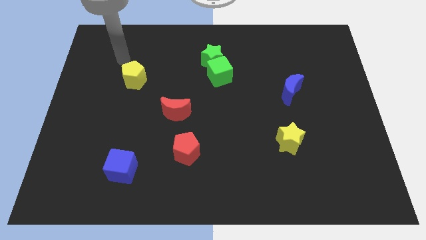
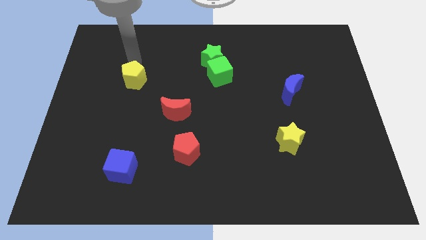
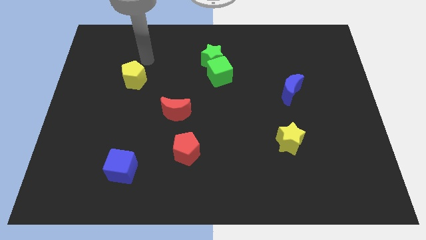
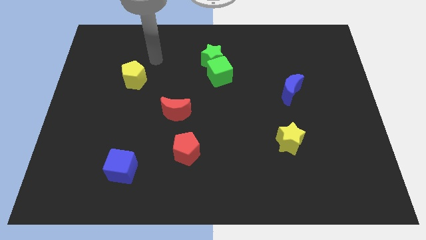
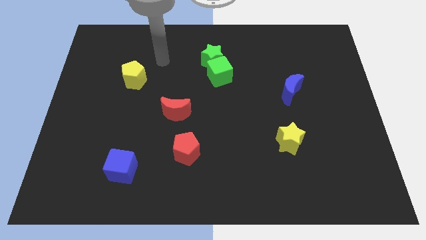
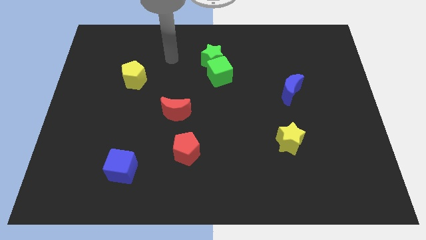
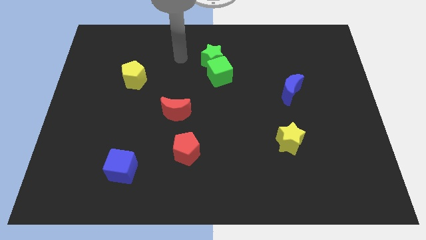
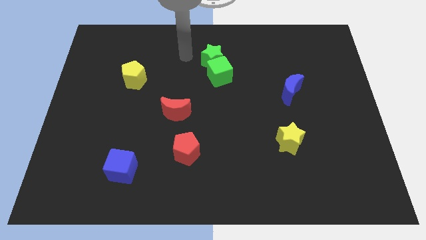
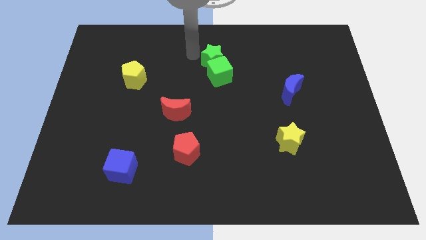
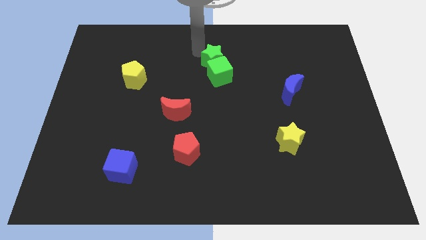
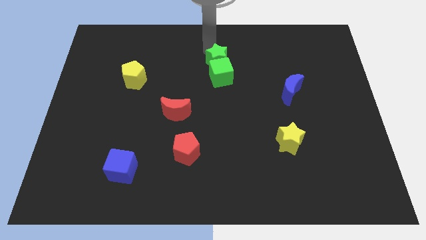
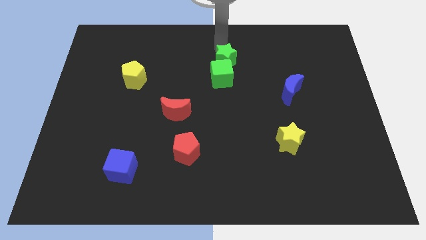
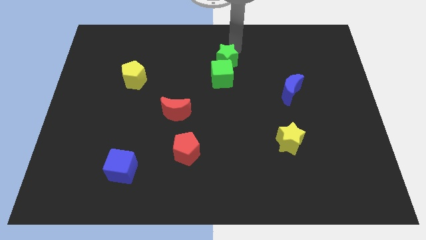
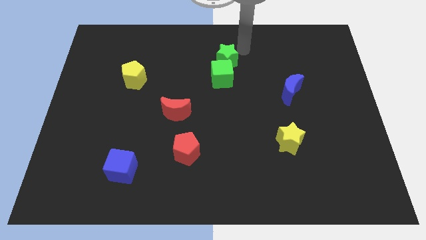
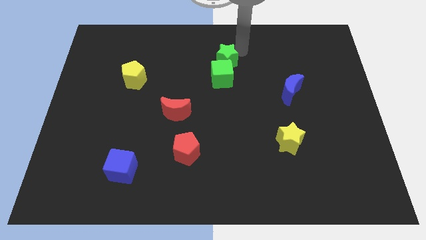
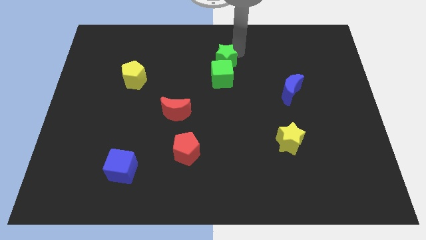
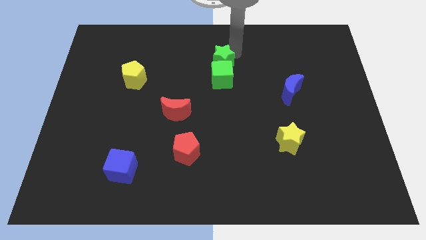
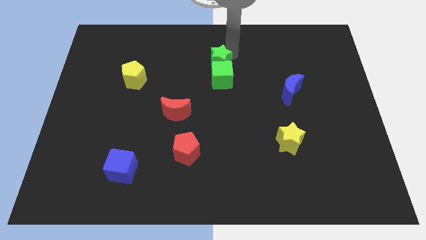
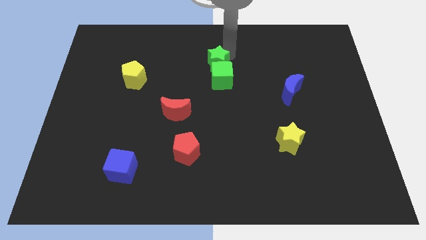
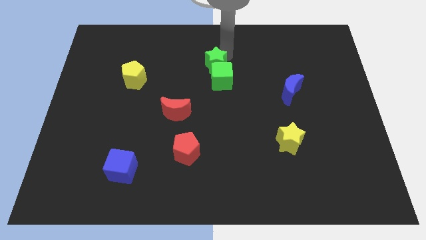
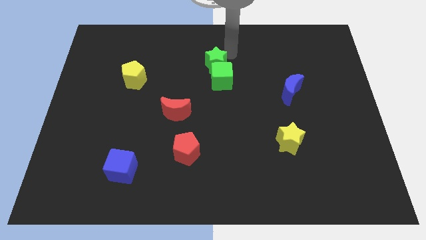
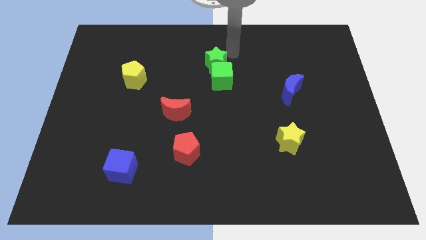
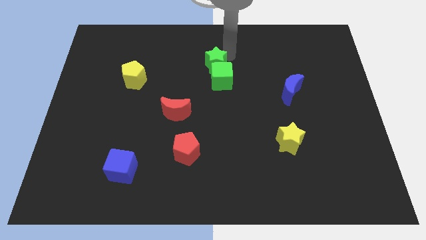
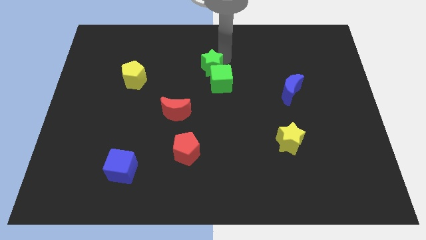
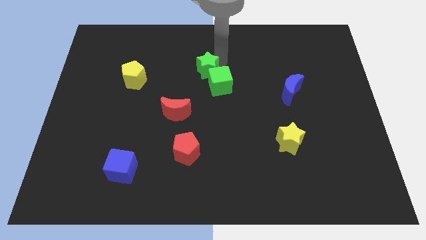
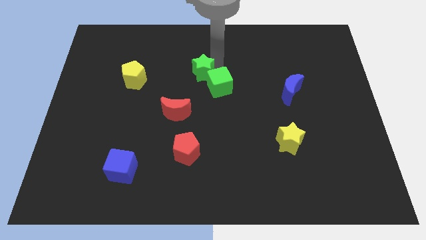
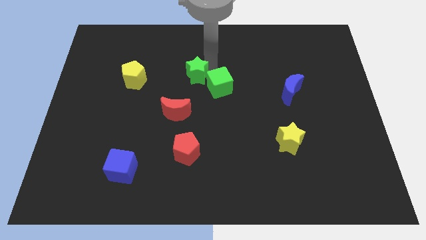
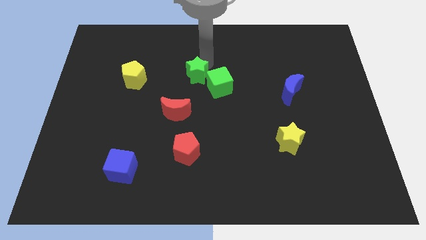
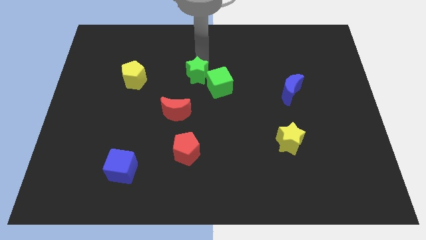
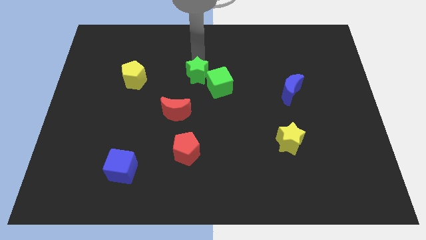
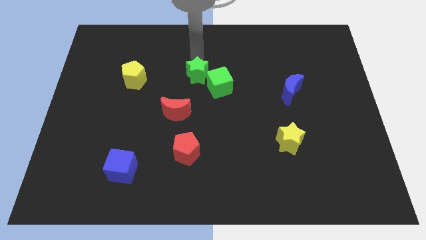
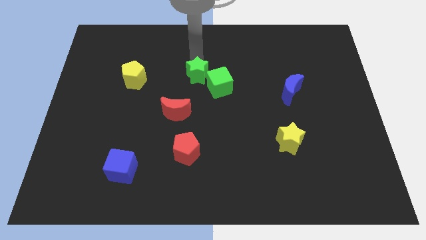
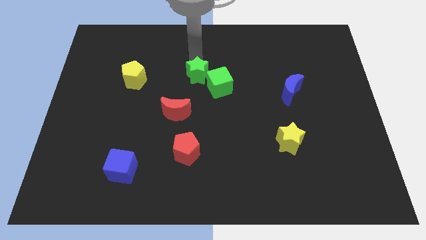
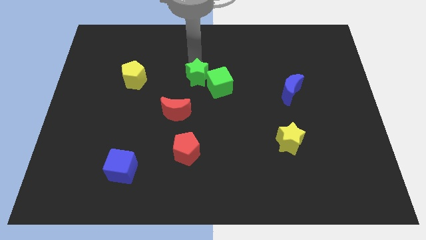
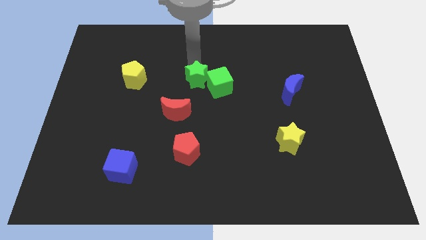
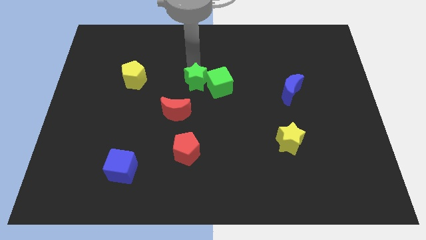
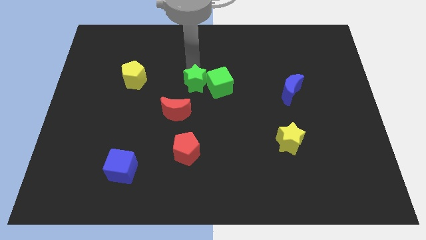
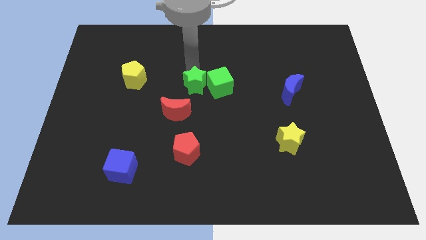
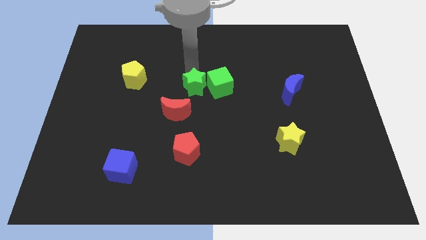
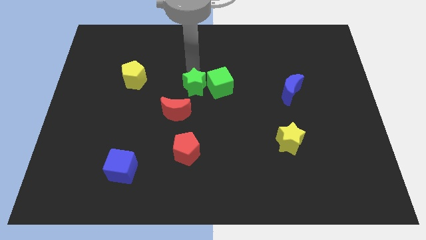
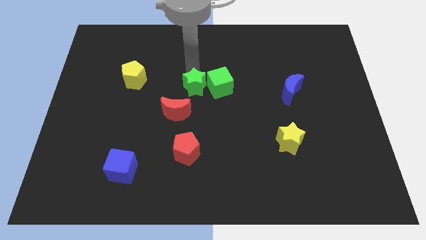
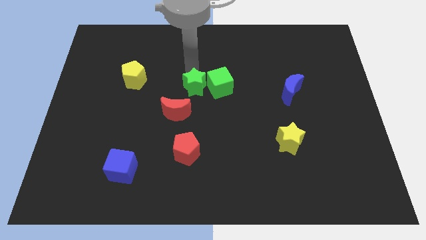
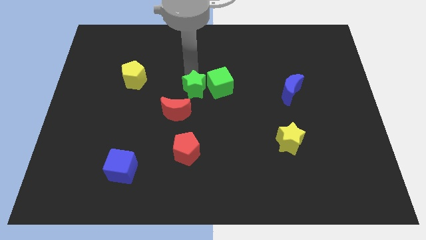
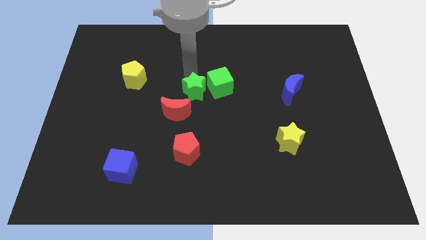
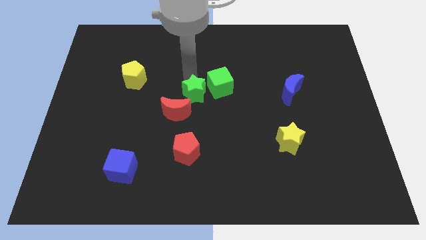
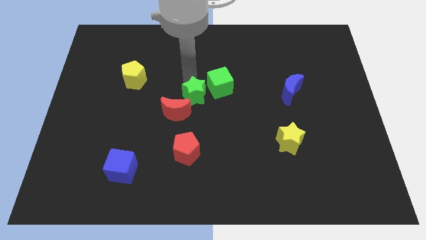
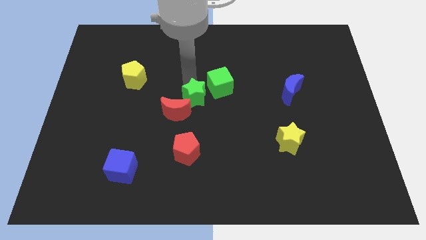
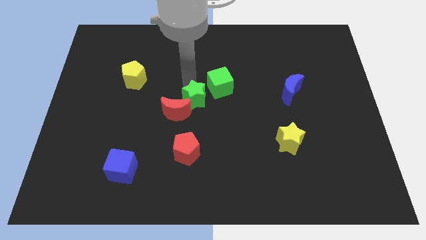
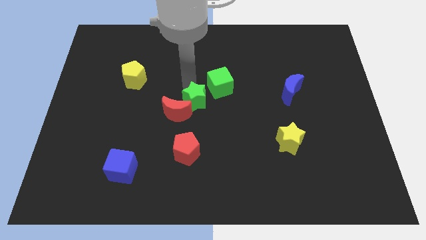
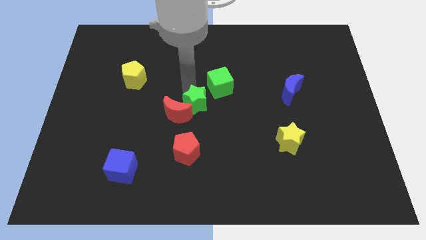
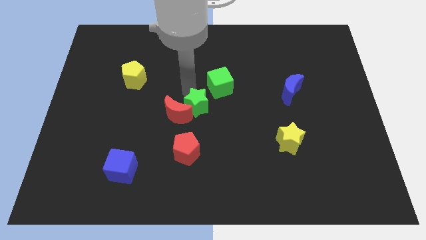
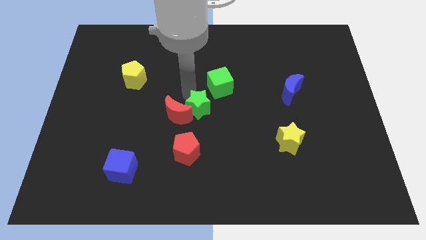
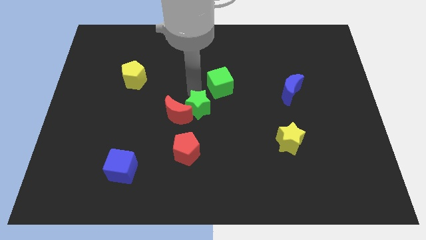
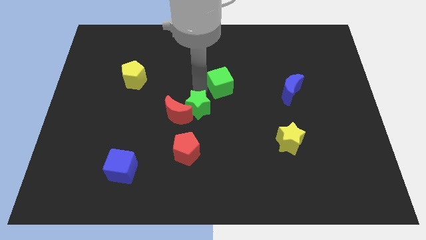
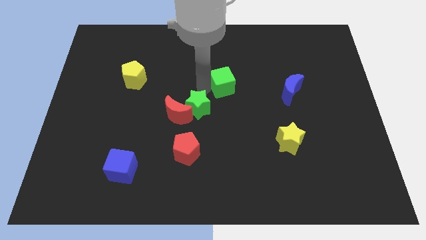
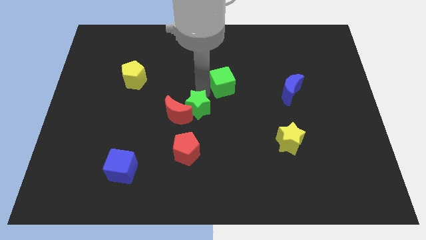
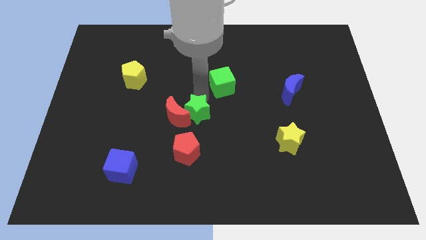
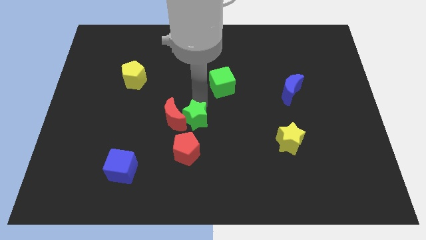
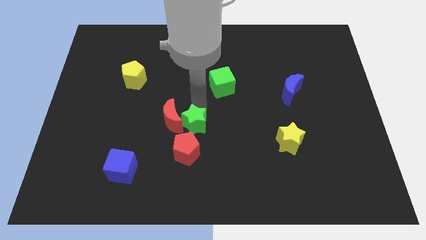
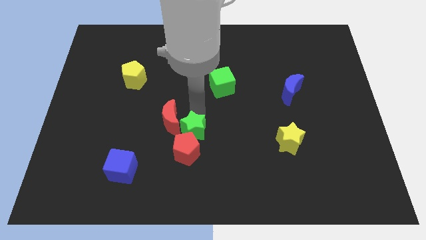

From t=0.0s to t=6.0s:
push the green star next to the red pentagon

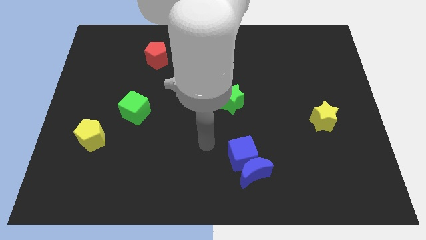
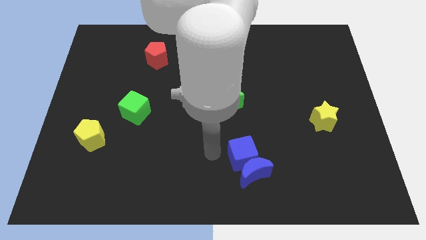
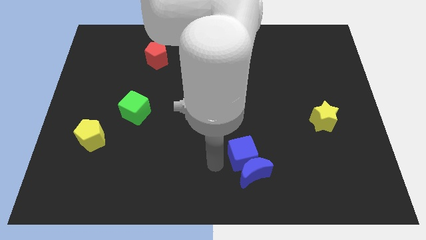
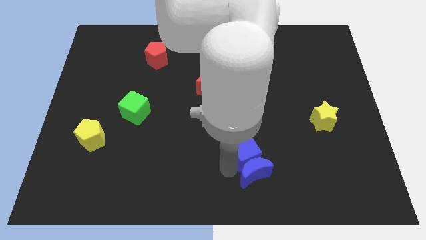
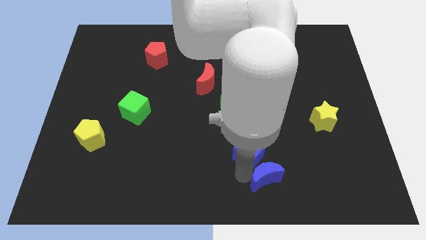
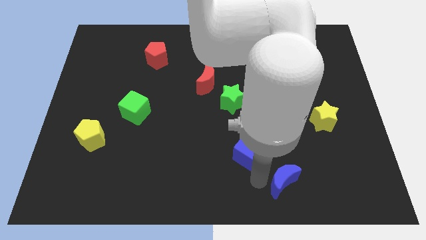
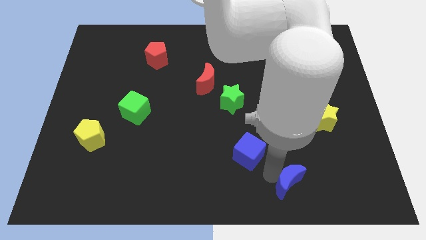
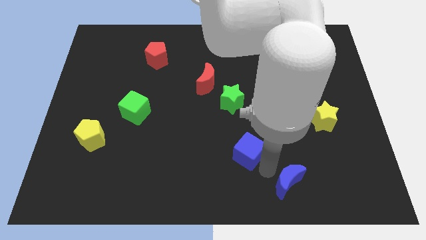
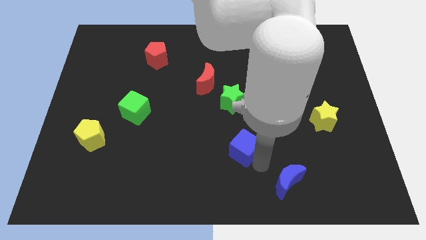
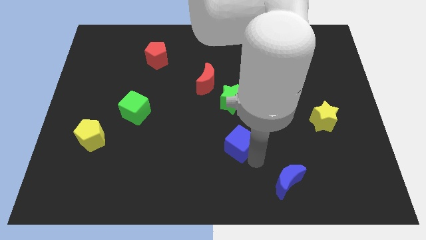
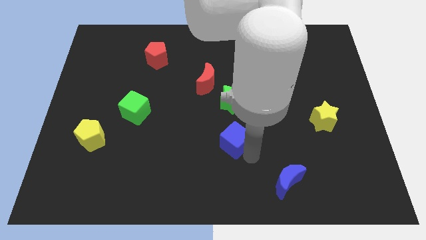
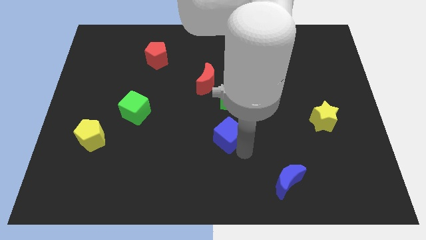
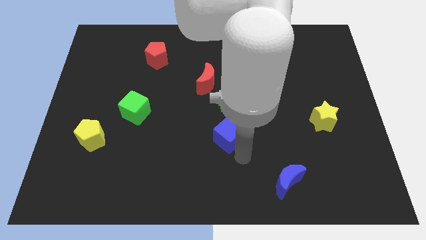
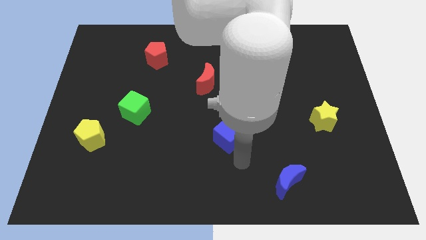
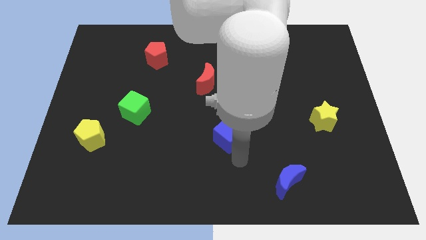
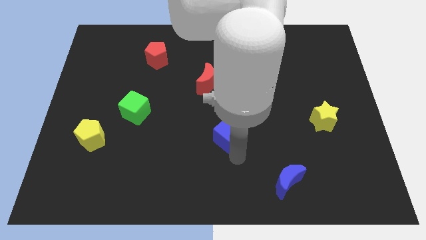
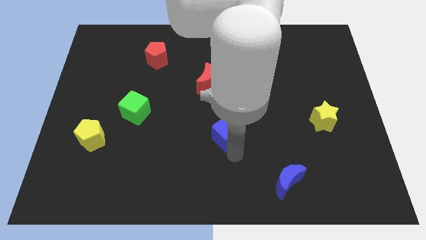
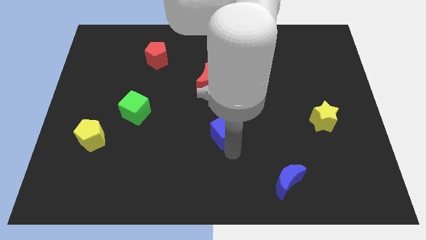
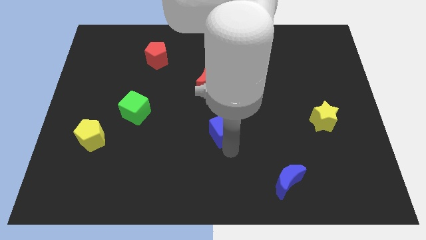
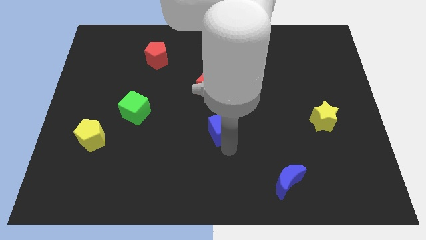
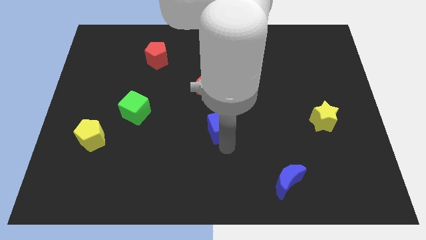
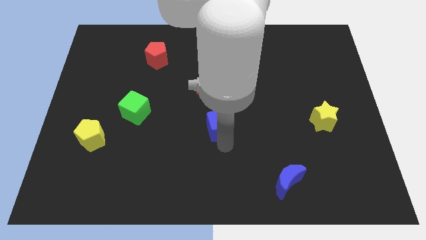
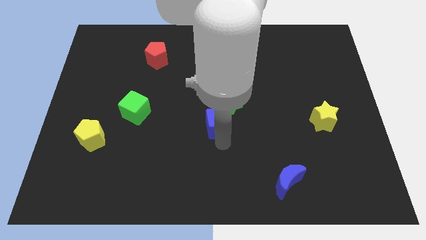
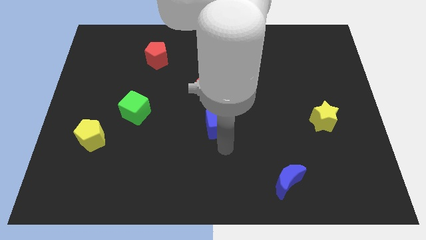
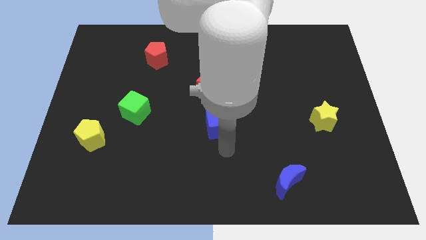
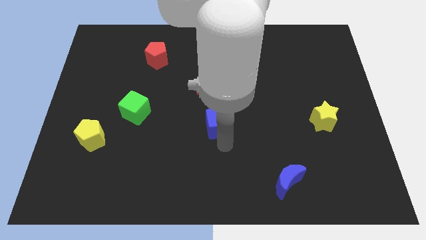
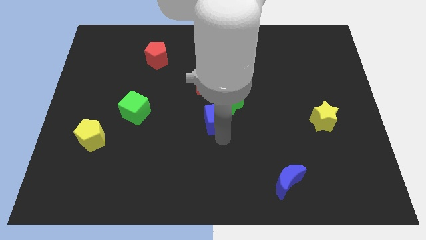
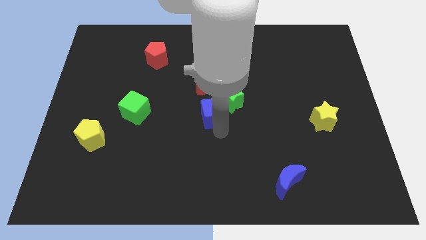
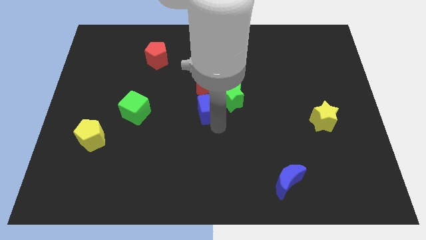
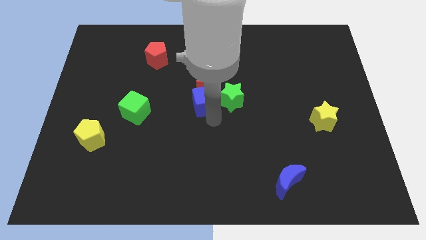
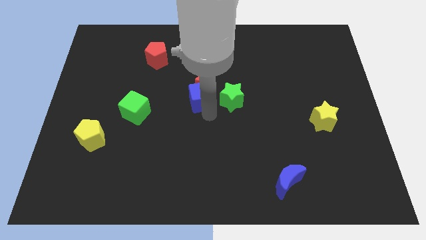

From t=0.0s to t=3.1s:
push the blue cube close to the red moon
